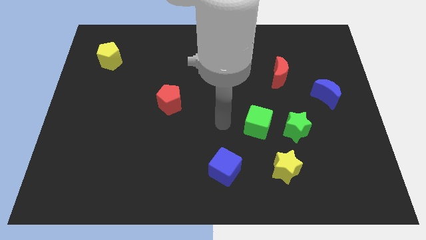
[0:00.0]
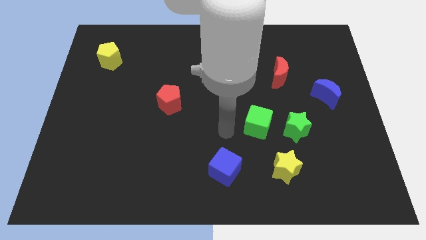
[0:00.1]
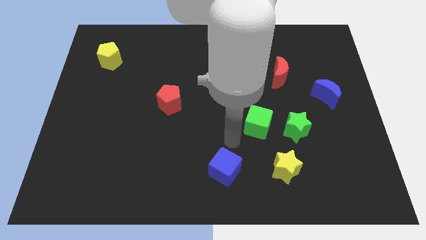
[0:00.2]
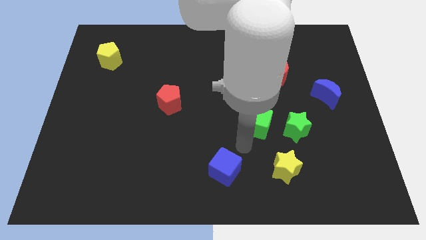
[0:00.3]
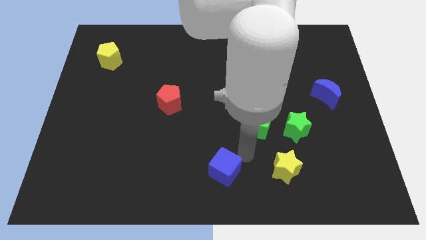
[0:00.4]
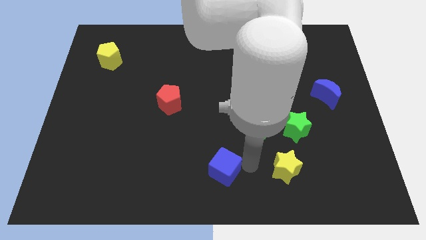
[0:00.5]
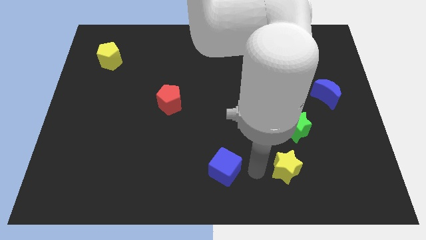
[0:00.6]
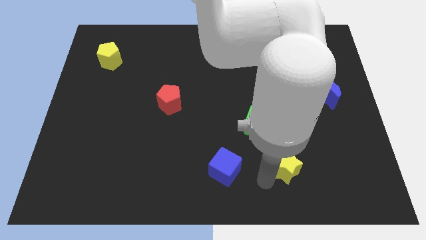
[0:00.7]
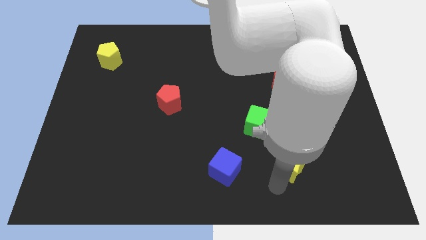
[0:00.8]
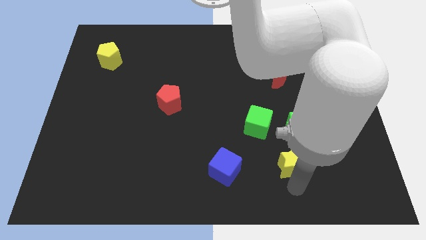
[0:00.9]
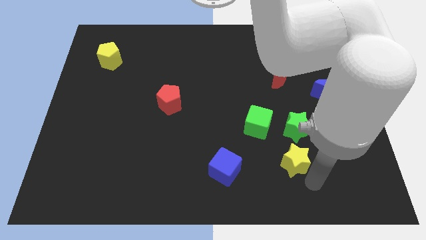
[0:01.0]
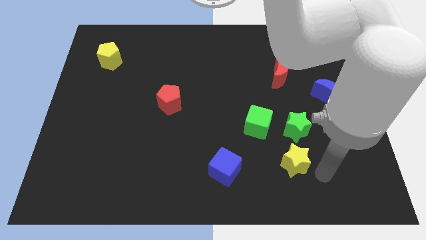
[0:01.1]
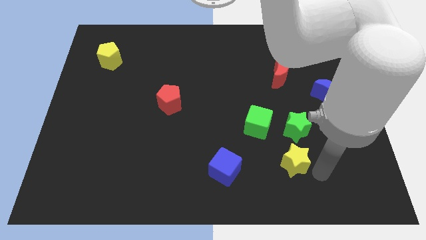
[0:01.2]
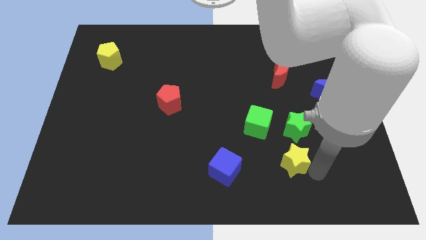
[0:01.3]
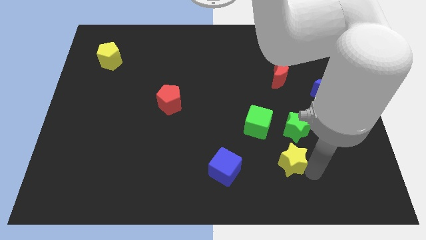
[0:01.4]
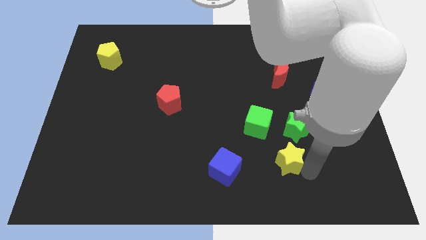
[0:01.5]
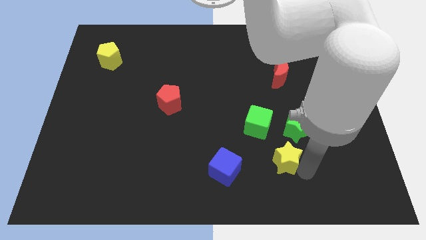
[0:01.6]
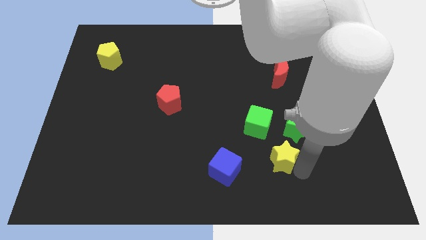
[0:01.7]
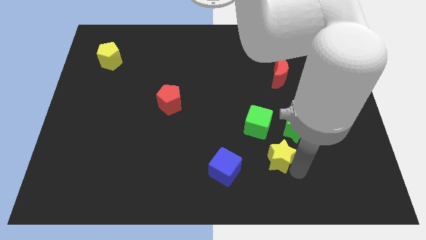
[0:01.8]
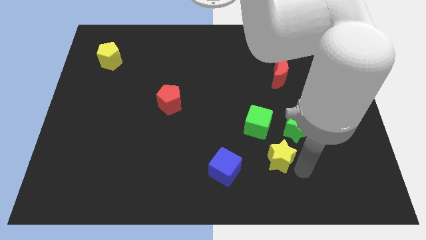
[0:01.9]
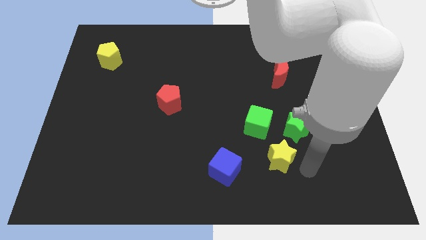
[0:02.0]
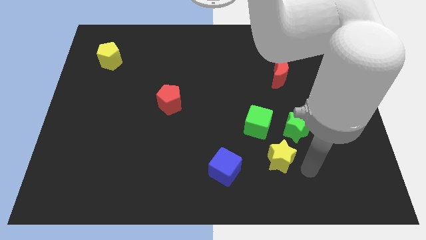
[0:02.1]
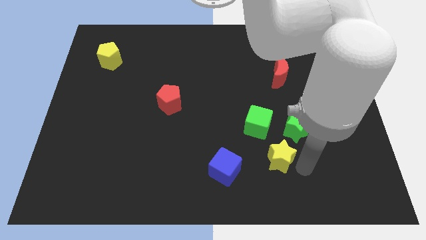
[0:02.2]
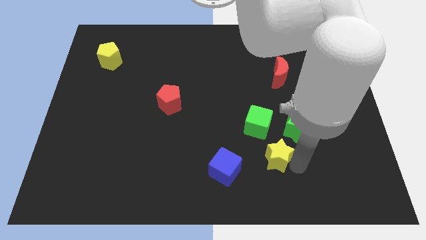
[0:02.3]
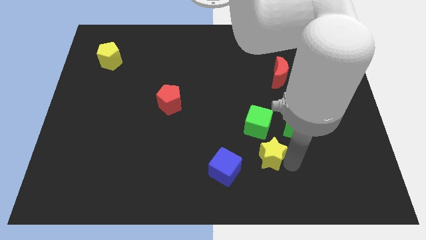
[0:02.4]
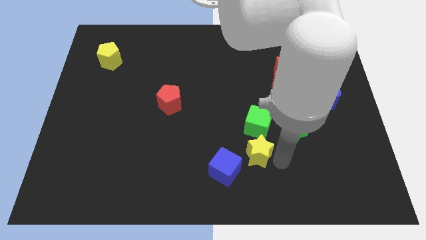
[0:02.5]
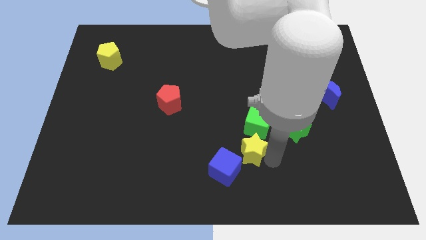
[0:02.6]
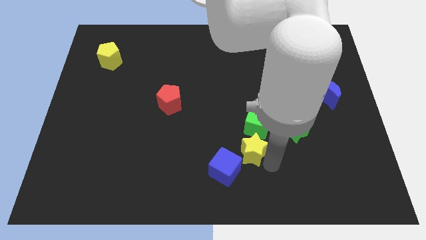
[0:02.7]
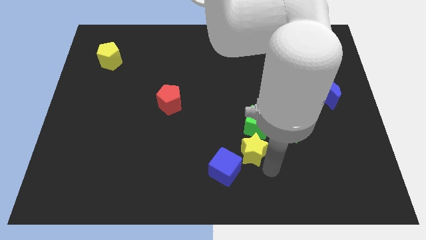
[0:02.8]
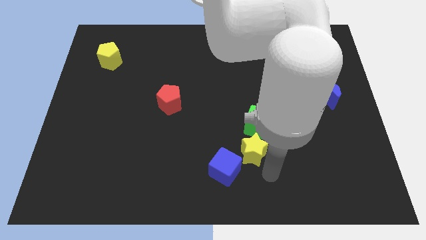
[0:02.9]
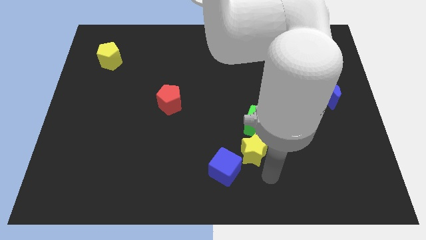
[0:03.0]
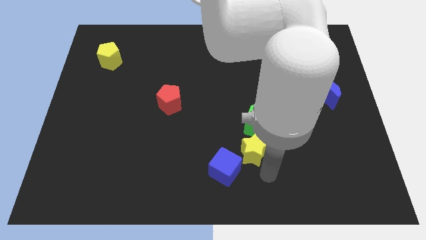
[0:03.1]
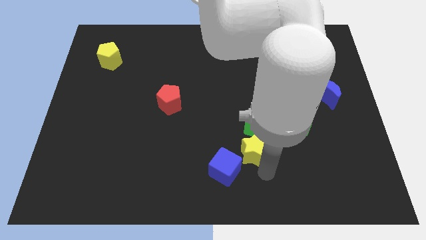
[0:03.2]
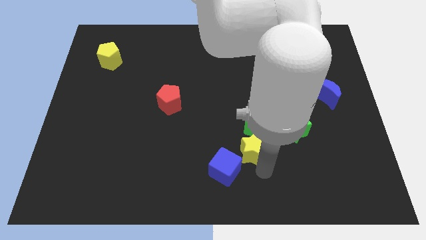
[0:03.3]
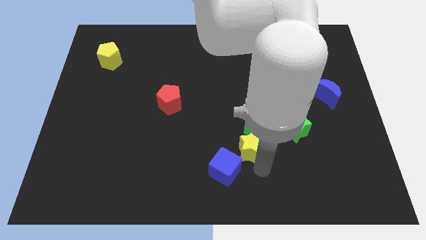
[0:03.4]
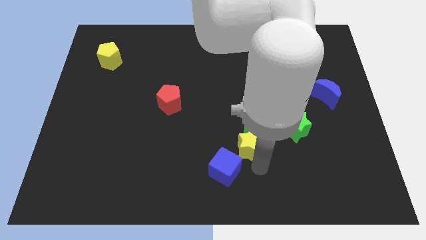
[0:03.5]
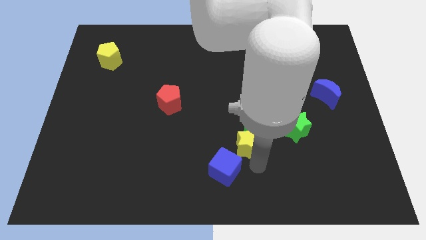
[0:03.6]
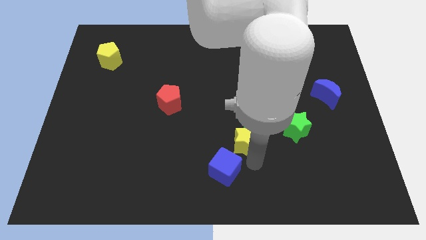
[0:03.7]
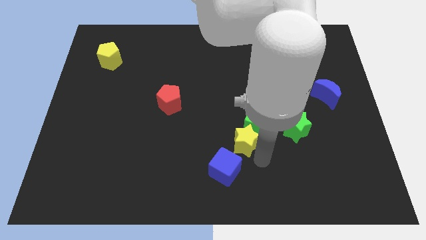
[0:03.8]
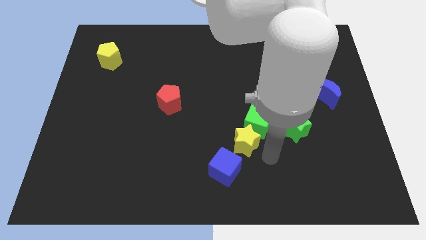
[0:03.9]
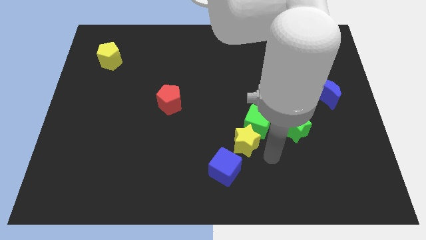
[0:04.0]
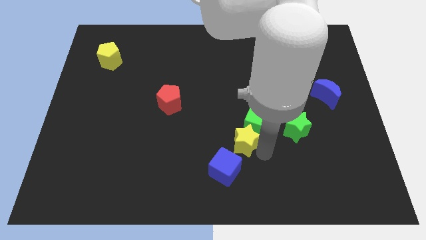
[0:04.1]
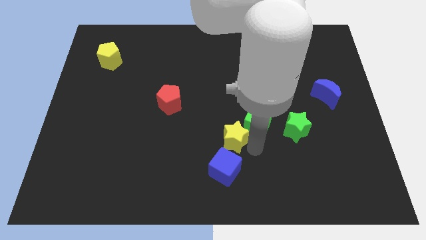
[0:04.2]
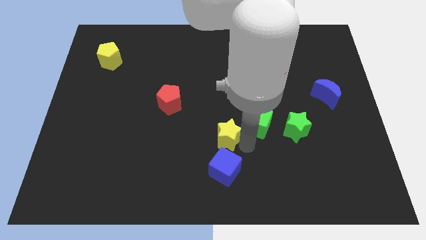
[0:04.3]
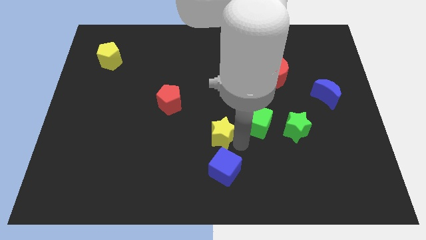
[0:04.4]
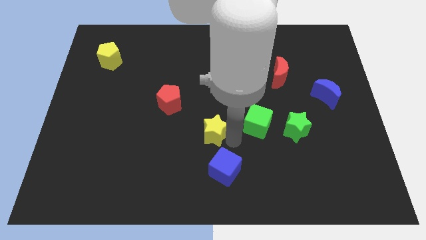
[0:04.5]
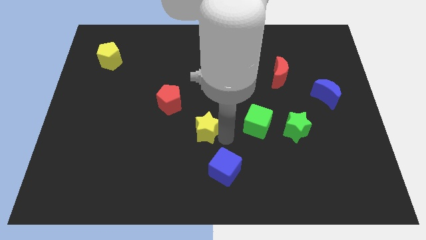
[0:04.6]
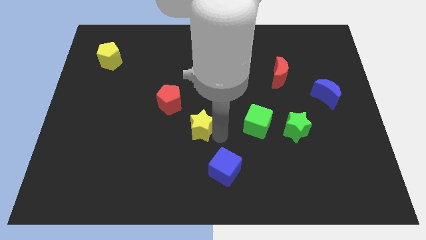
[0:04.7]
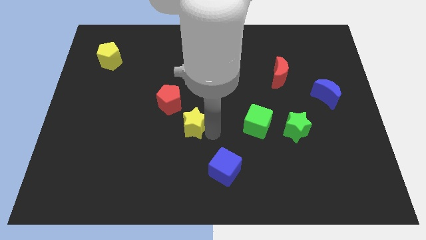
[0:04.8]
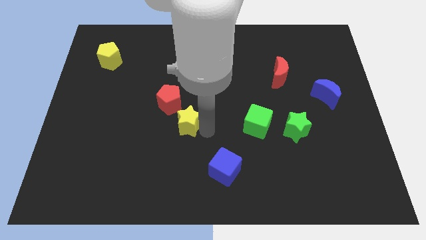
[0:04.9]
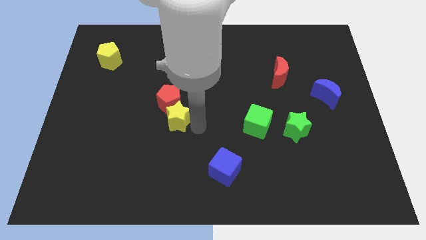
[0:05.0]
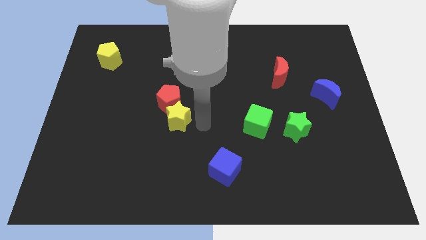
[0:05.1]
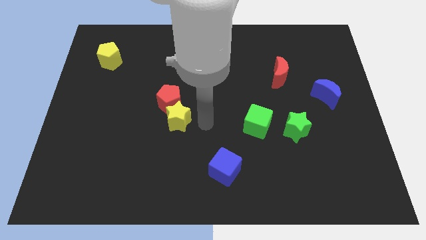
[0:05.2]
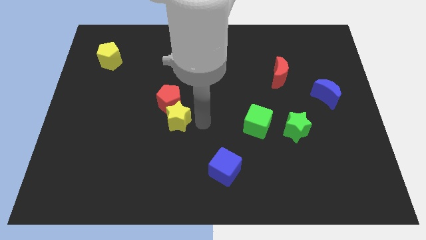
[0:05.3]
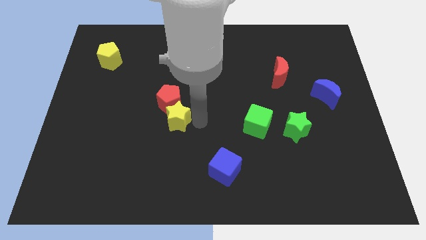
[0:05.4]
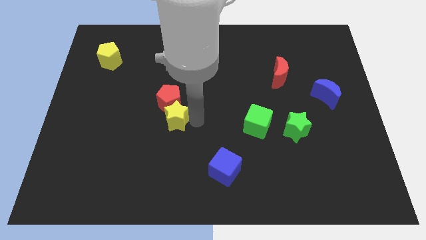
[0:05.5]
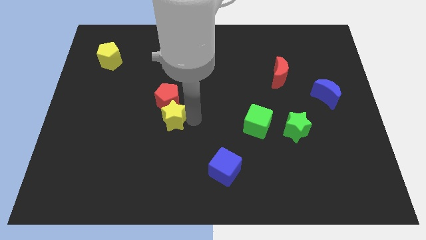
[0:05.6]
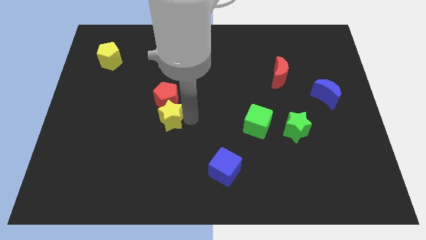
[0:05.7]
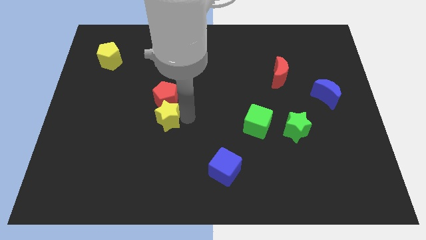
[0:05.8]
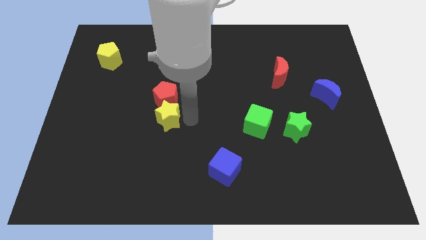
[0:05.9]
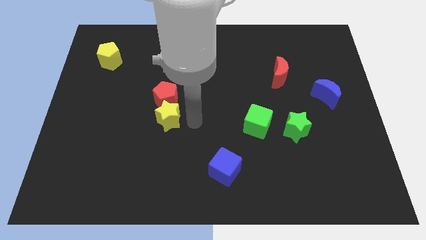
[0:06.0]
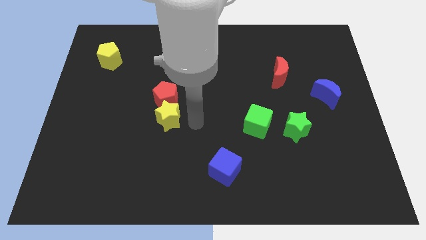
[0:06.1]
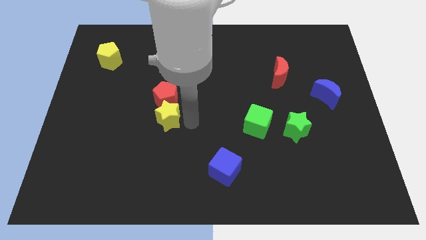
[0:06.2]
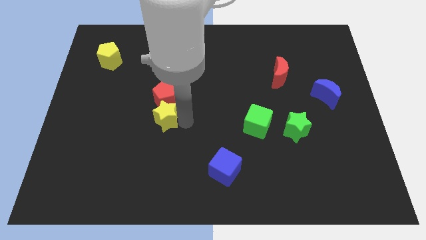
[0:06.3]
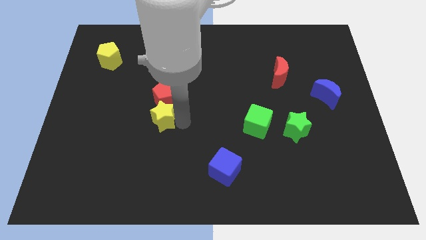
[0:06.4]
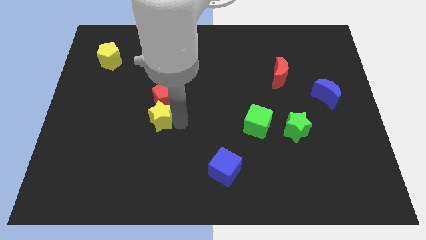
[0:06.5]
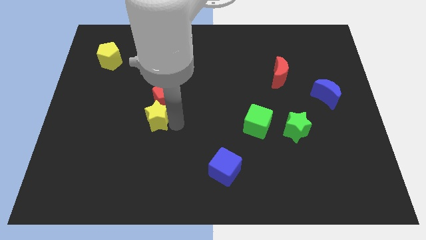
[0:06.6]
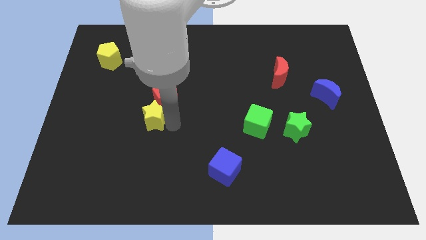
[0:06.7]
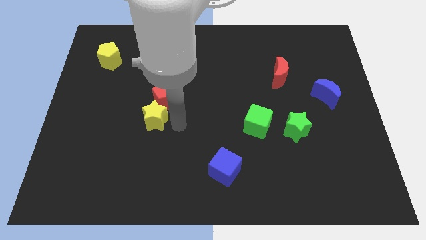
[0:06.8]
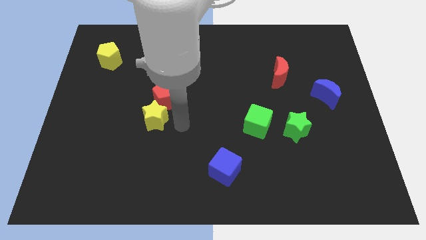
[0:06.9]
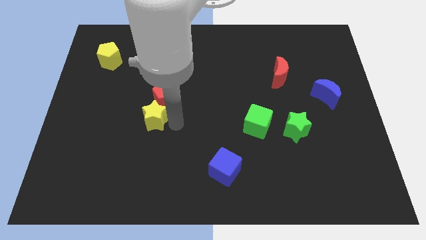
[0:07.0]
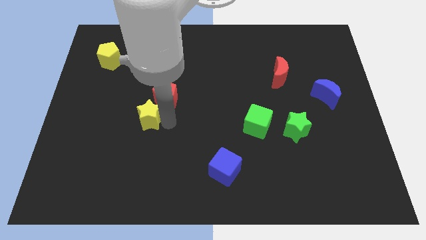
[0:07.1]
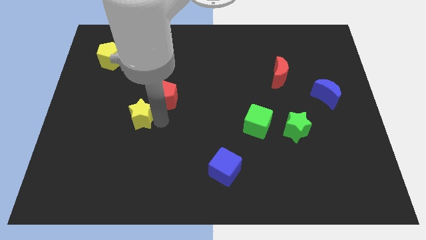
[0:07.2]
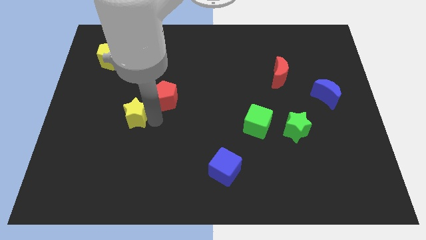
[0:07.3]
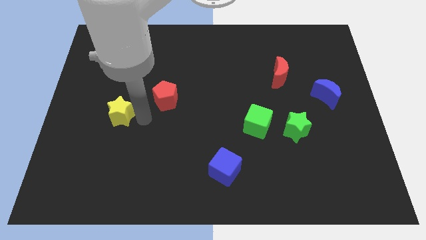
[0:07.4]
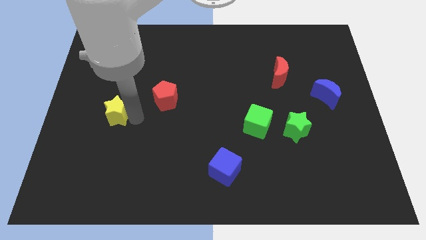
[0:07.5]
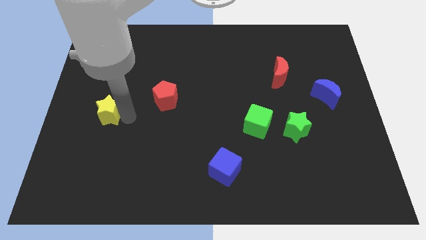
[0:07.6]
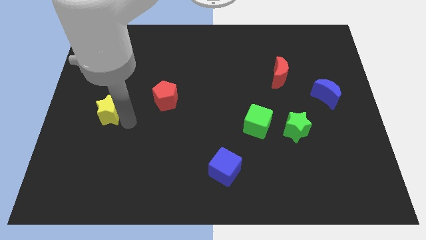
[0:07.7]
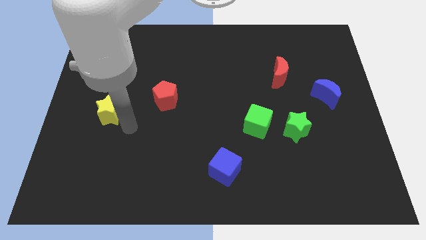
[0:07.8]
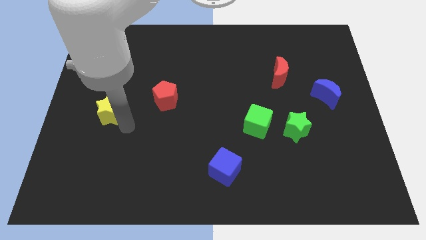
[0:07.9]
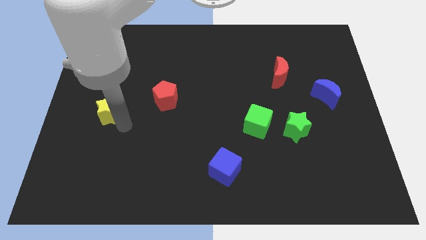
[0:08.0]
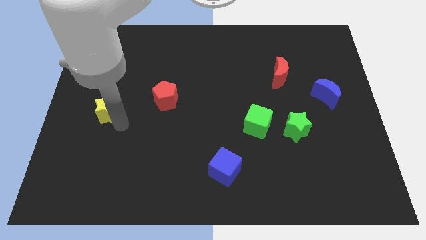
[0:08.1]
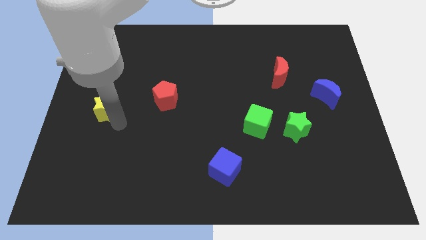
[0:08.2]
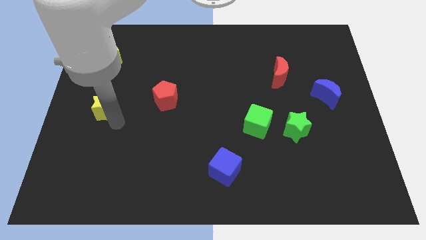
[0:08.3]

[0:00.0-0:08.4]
put the yellow star to the left side of the board
